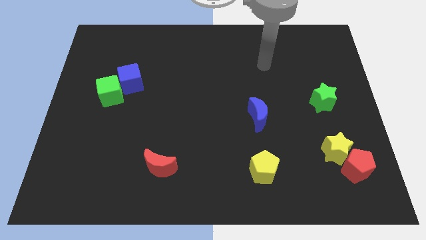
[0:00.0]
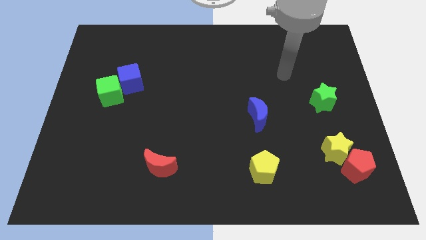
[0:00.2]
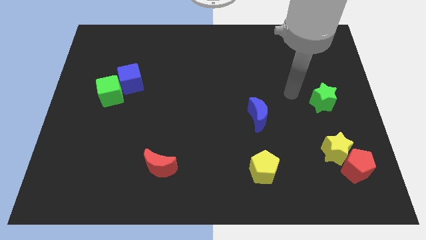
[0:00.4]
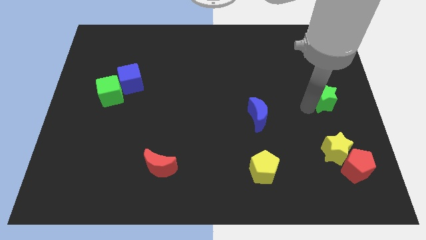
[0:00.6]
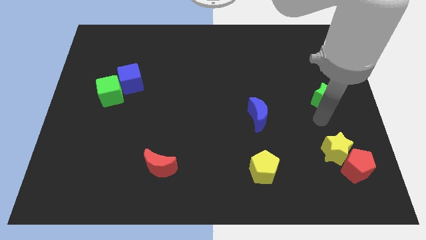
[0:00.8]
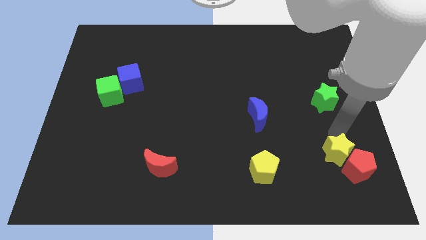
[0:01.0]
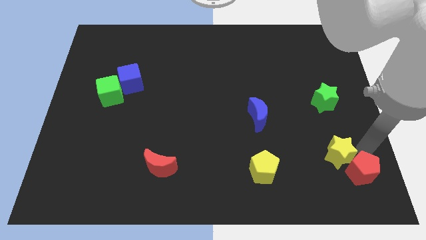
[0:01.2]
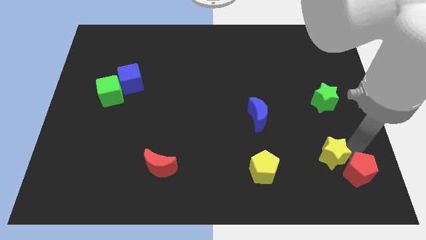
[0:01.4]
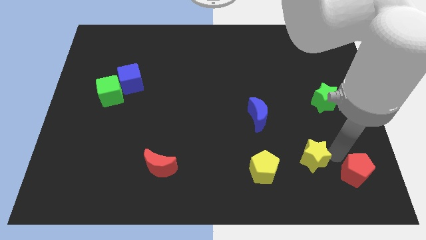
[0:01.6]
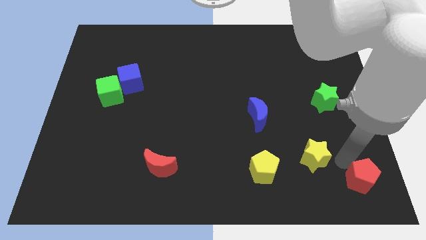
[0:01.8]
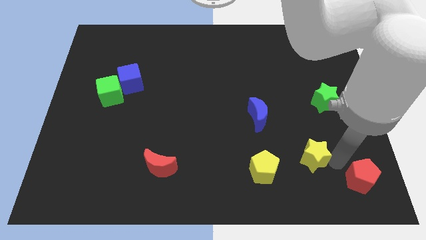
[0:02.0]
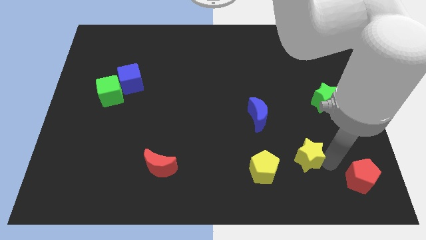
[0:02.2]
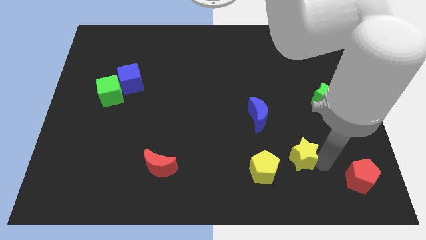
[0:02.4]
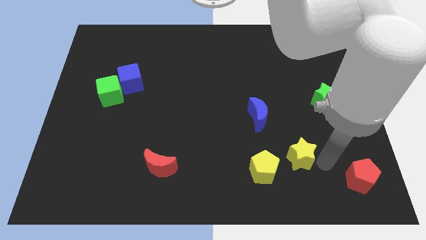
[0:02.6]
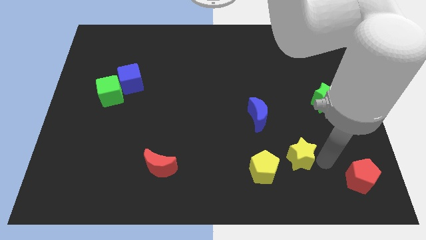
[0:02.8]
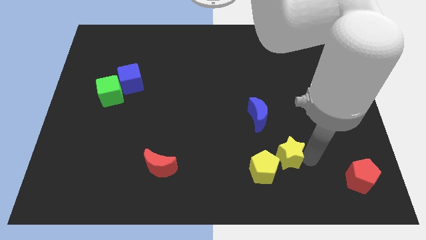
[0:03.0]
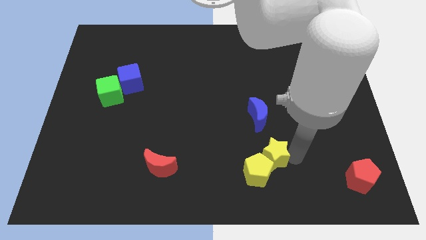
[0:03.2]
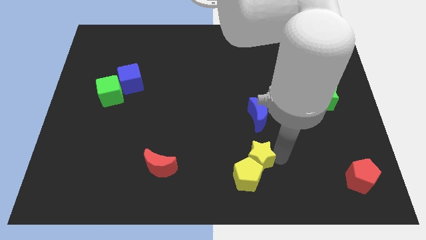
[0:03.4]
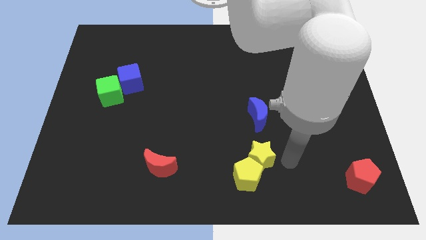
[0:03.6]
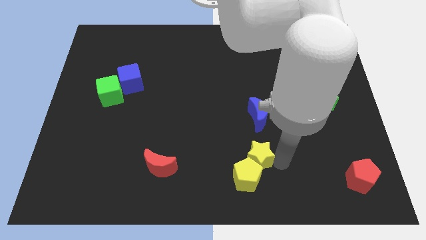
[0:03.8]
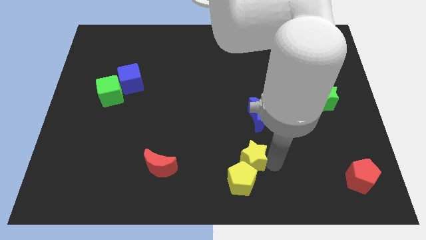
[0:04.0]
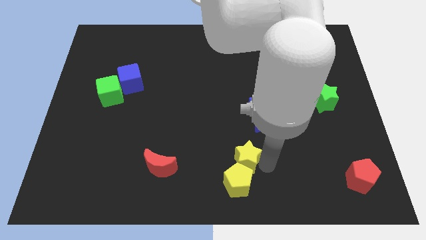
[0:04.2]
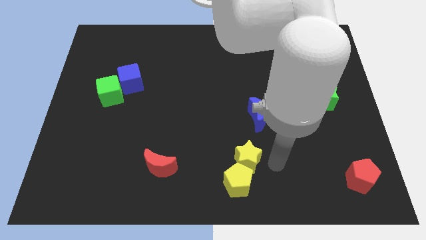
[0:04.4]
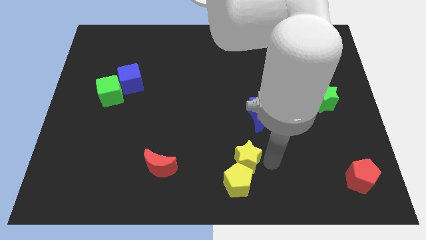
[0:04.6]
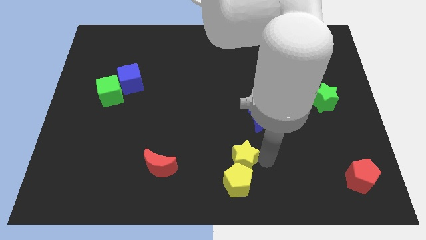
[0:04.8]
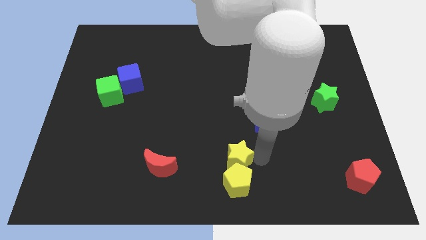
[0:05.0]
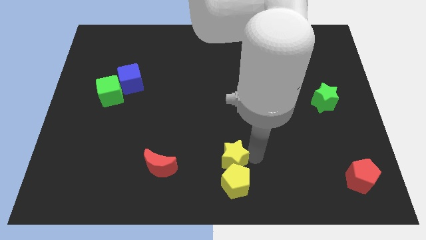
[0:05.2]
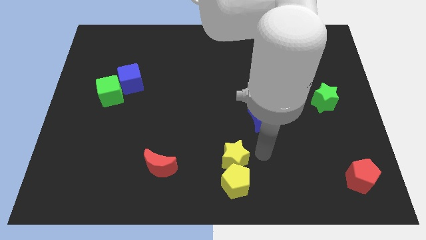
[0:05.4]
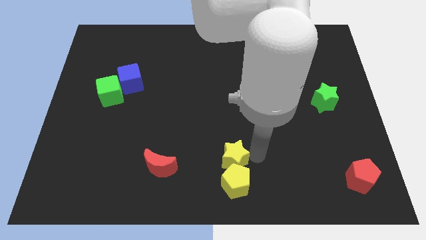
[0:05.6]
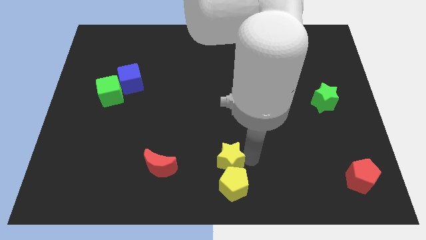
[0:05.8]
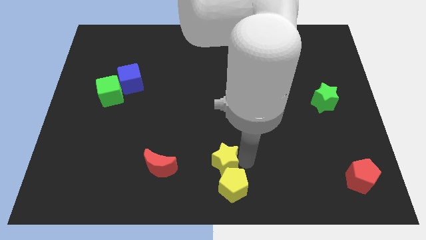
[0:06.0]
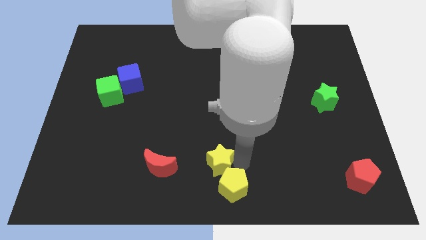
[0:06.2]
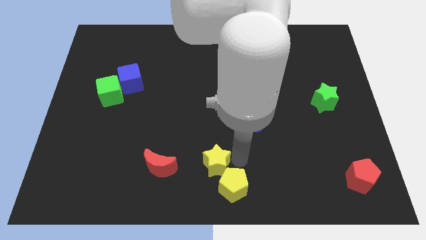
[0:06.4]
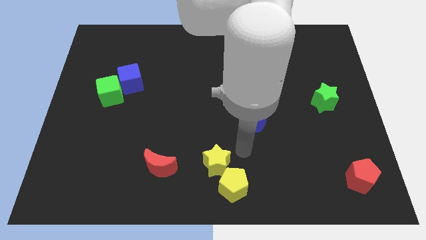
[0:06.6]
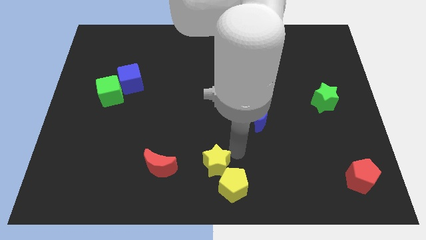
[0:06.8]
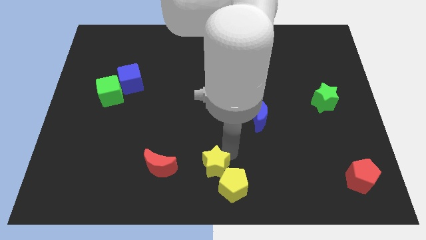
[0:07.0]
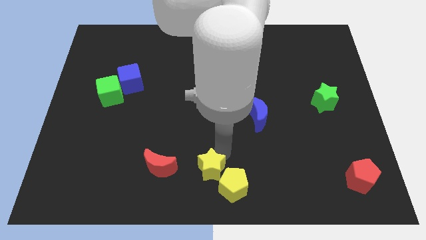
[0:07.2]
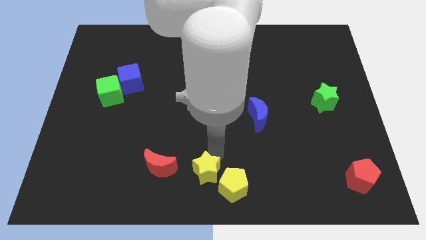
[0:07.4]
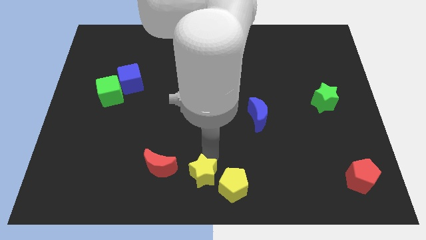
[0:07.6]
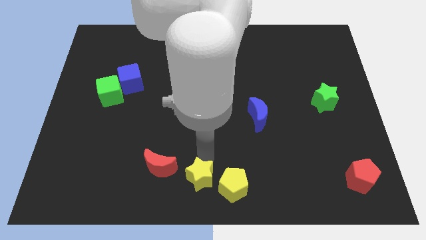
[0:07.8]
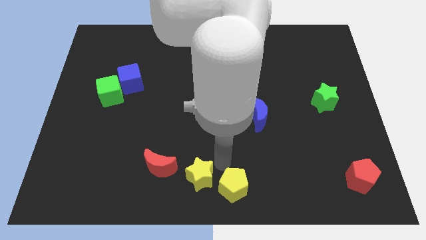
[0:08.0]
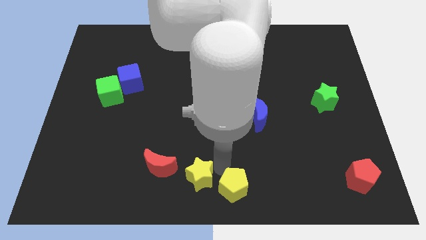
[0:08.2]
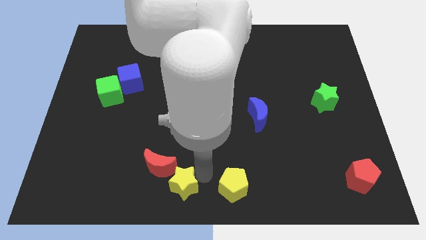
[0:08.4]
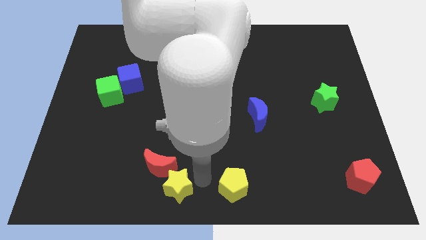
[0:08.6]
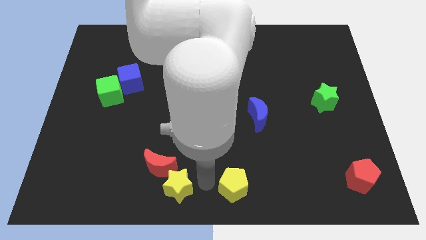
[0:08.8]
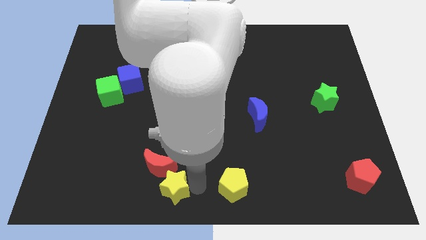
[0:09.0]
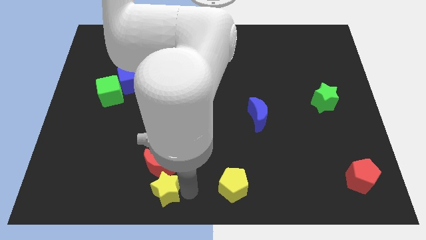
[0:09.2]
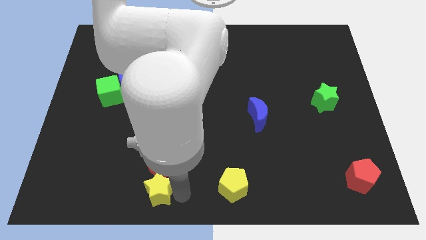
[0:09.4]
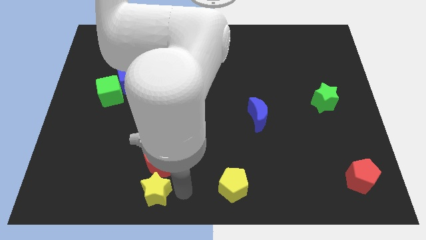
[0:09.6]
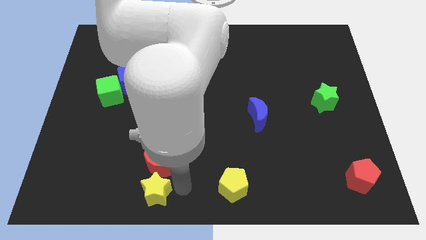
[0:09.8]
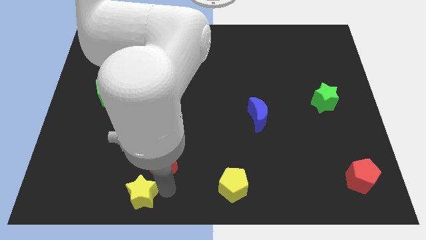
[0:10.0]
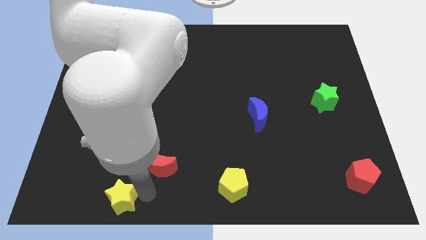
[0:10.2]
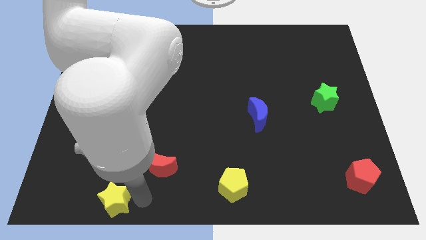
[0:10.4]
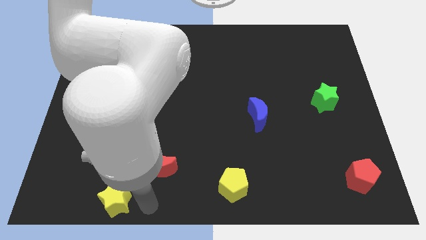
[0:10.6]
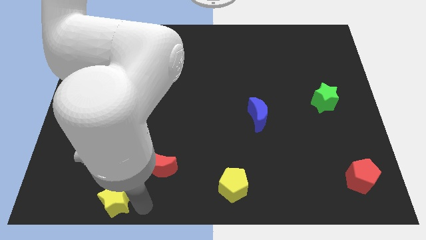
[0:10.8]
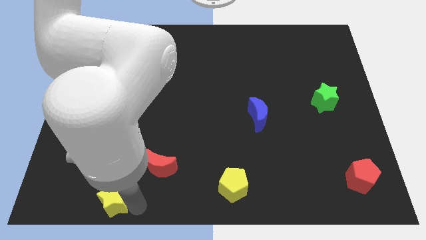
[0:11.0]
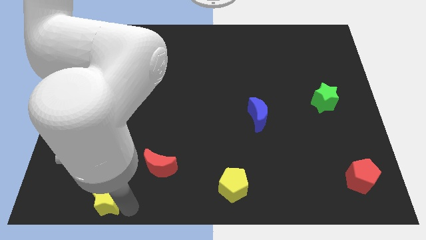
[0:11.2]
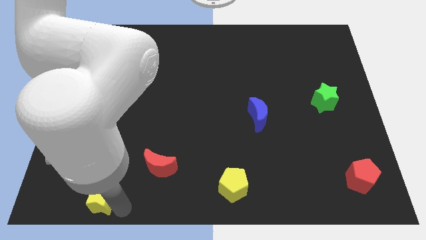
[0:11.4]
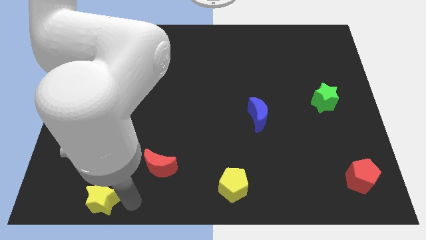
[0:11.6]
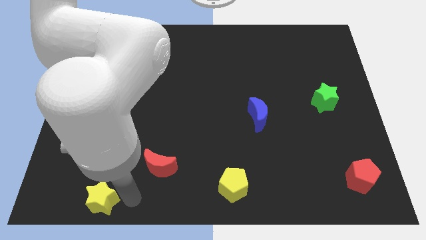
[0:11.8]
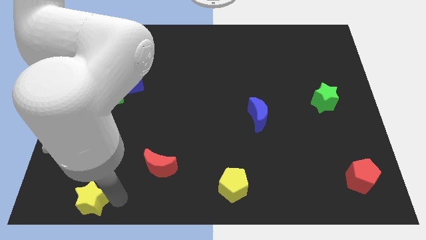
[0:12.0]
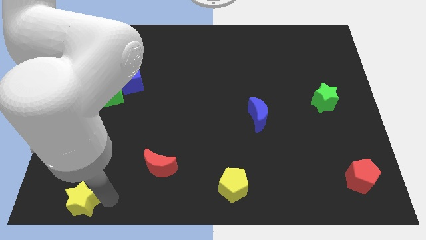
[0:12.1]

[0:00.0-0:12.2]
push the yellow star to the lower left corner
